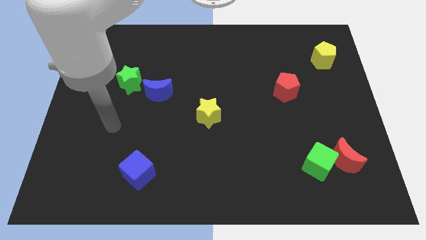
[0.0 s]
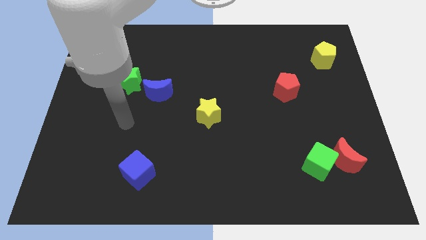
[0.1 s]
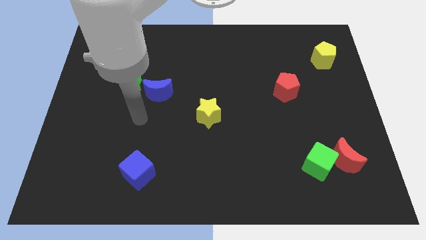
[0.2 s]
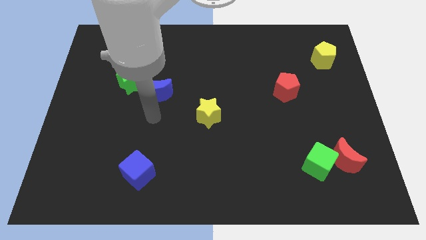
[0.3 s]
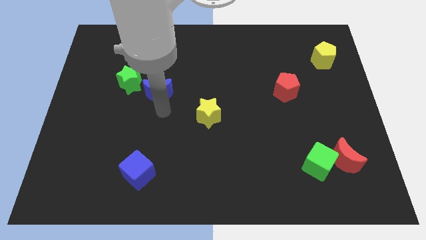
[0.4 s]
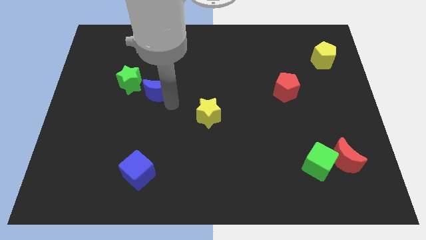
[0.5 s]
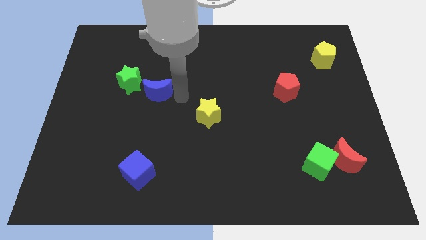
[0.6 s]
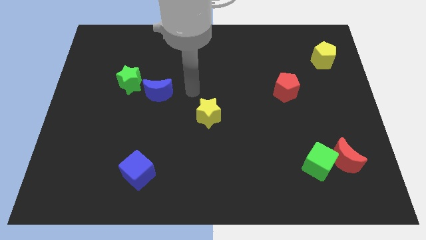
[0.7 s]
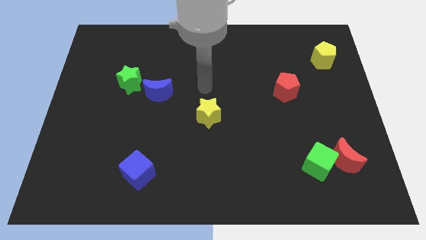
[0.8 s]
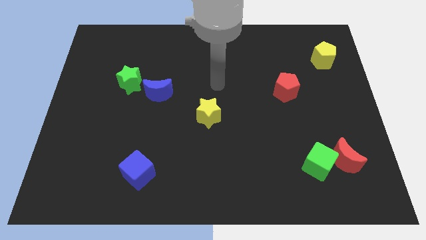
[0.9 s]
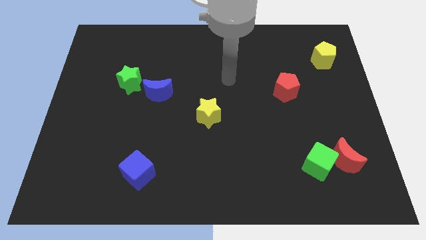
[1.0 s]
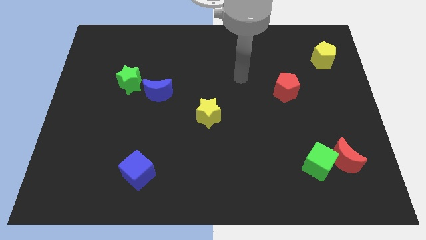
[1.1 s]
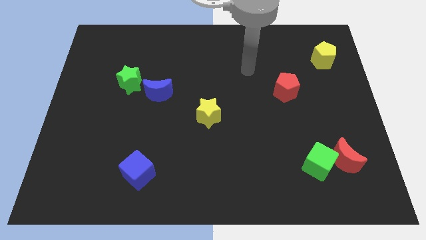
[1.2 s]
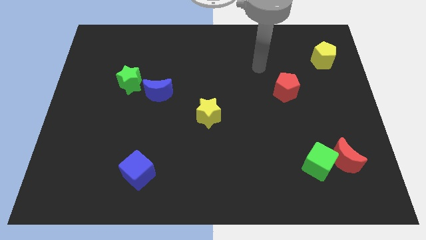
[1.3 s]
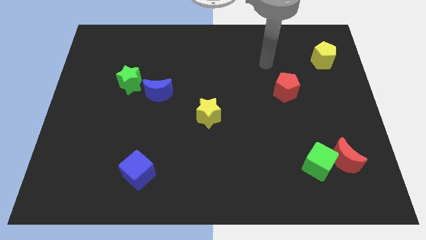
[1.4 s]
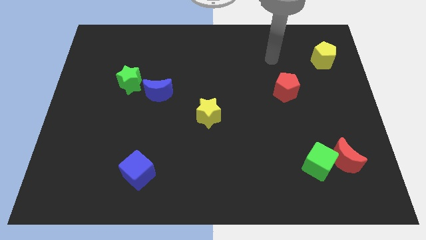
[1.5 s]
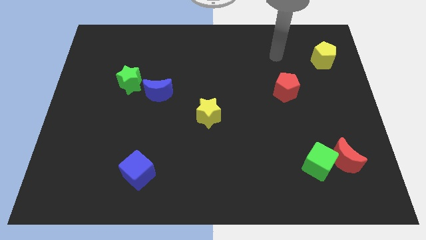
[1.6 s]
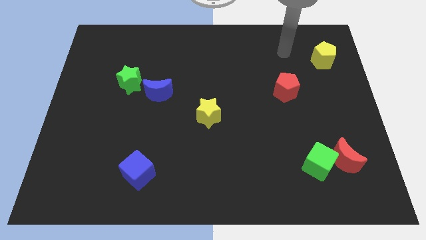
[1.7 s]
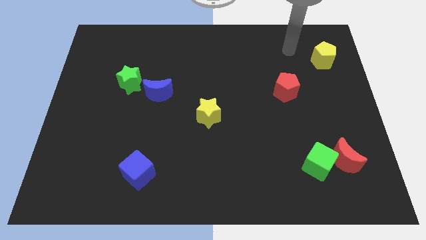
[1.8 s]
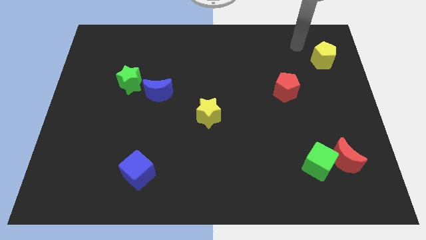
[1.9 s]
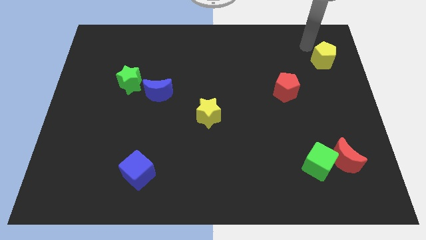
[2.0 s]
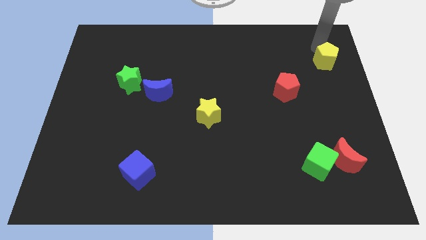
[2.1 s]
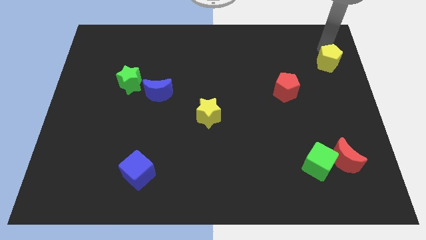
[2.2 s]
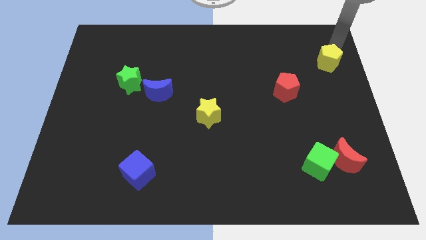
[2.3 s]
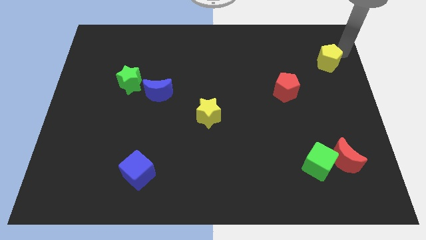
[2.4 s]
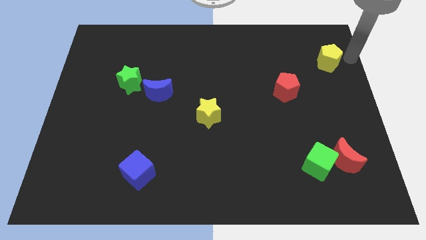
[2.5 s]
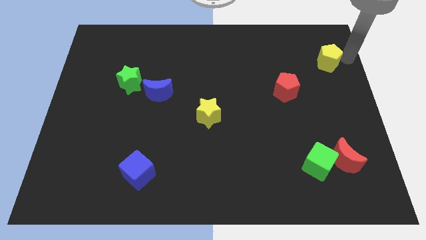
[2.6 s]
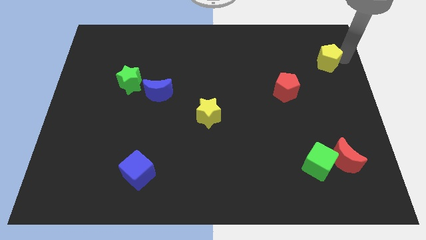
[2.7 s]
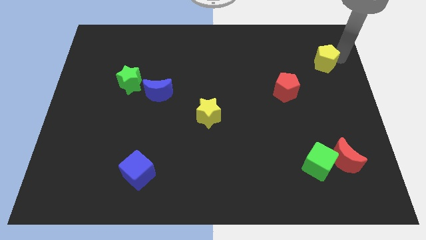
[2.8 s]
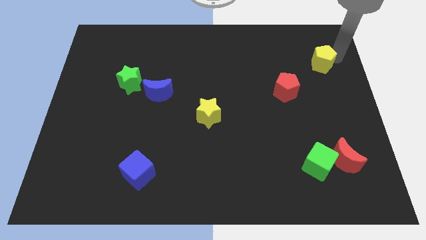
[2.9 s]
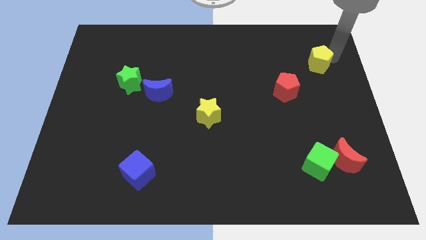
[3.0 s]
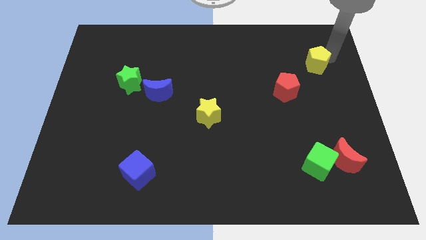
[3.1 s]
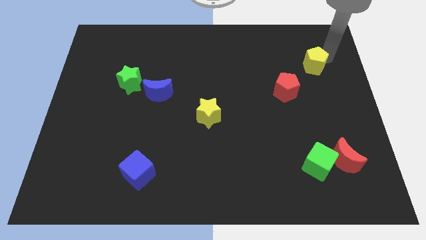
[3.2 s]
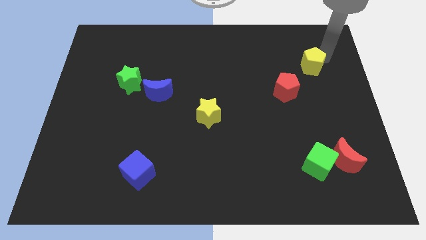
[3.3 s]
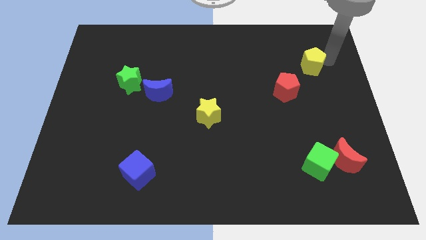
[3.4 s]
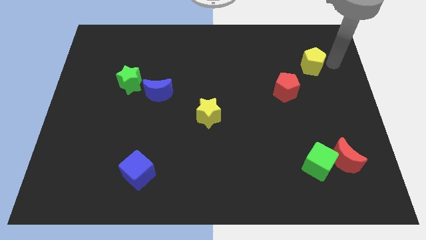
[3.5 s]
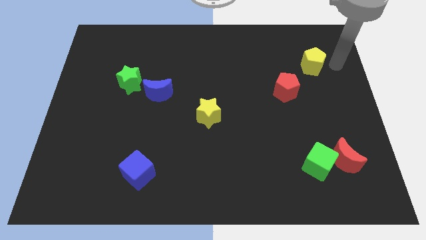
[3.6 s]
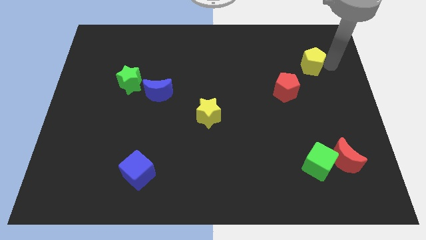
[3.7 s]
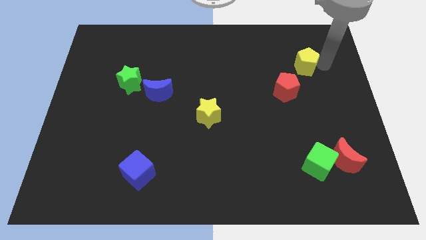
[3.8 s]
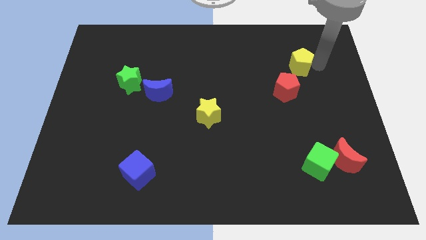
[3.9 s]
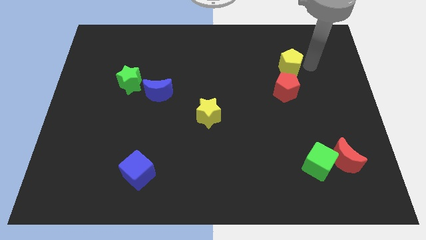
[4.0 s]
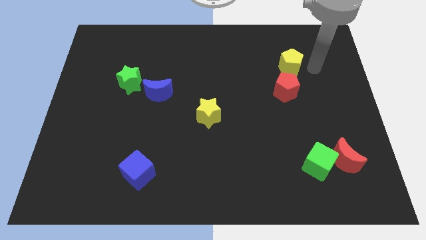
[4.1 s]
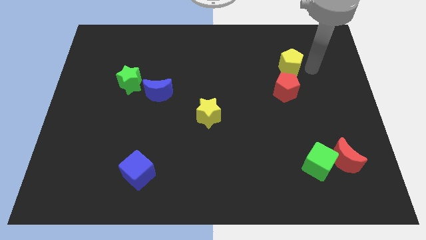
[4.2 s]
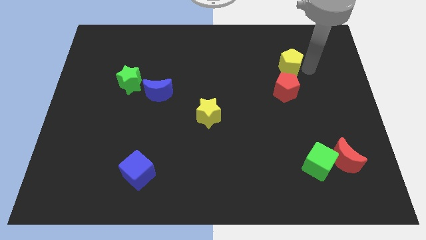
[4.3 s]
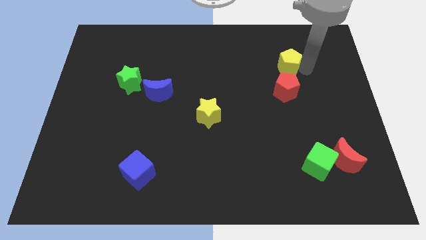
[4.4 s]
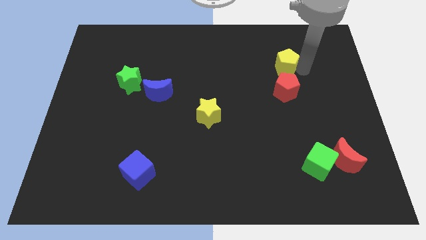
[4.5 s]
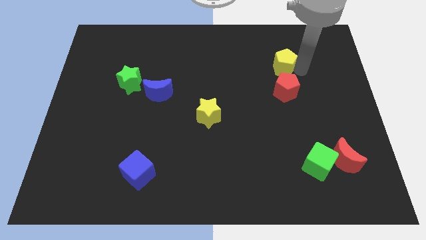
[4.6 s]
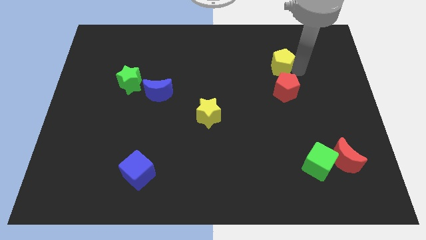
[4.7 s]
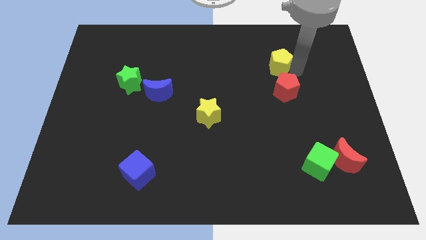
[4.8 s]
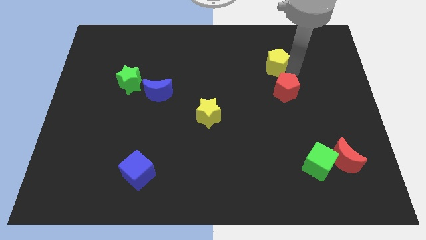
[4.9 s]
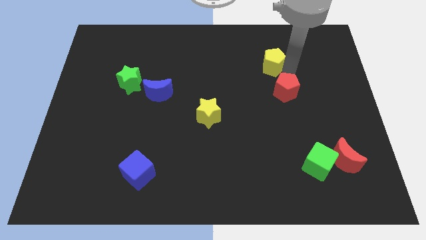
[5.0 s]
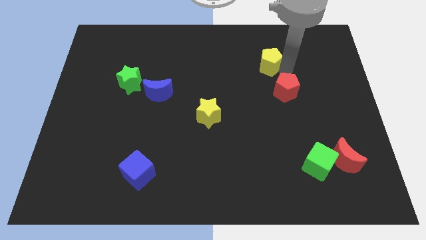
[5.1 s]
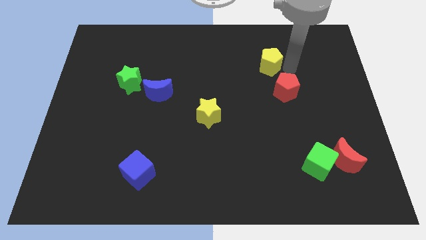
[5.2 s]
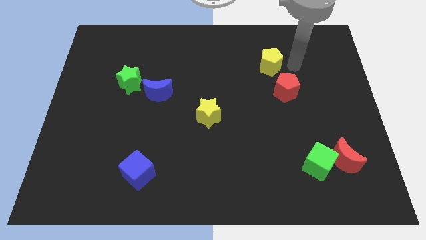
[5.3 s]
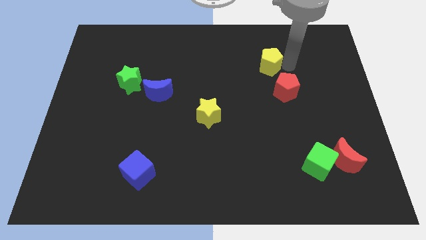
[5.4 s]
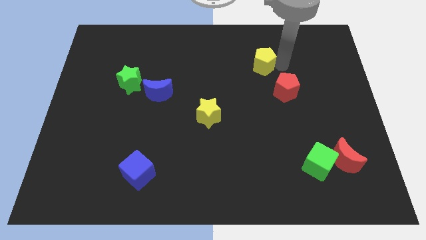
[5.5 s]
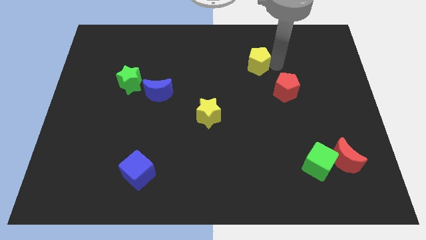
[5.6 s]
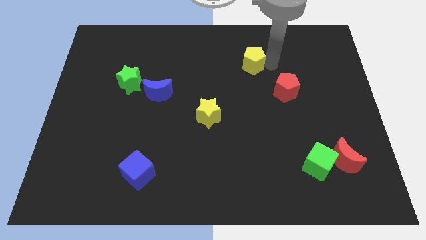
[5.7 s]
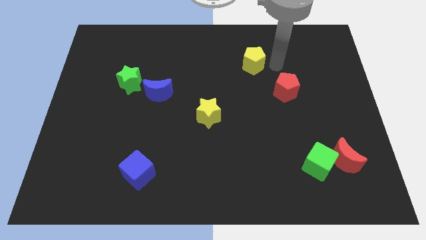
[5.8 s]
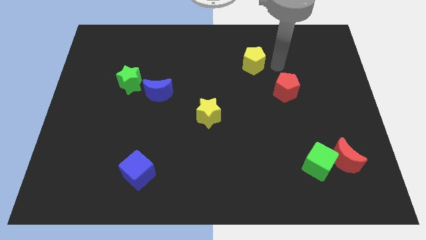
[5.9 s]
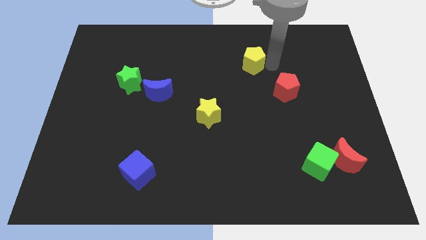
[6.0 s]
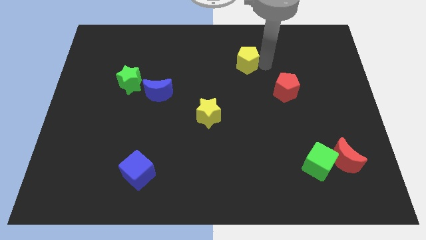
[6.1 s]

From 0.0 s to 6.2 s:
move the yellow pentagon left

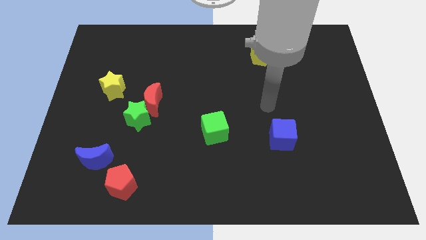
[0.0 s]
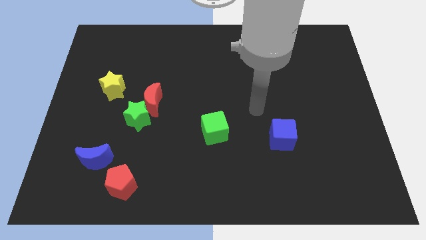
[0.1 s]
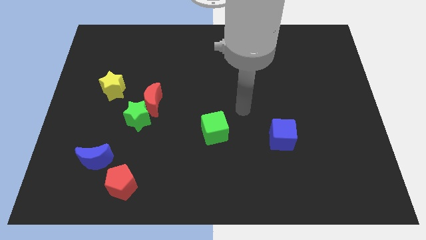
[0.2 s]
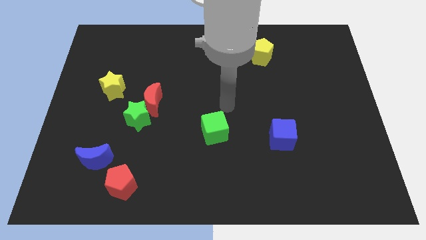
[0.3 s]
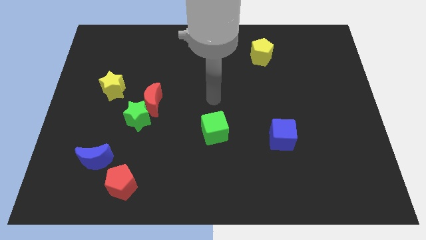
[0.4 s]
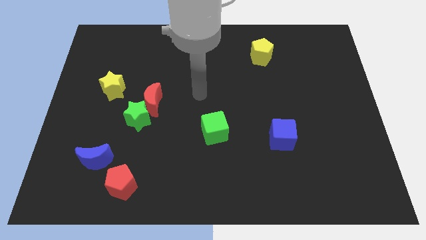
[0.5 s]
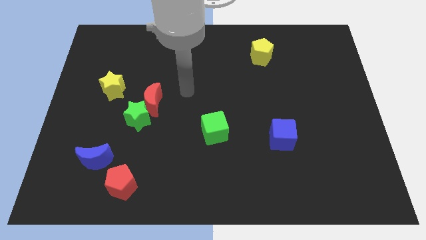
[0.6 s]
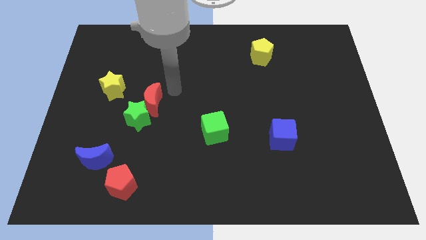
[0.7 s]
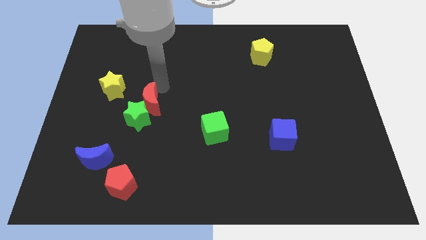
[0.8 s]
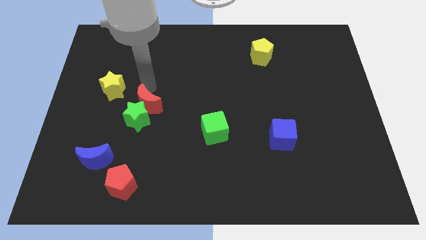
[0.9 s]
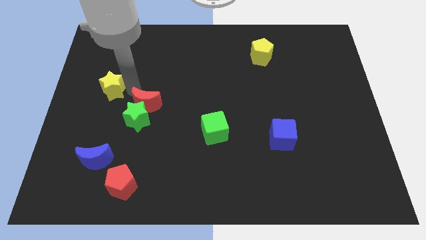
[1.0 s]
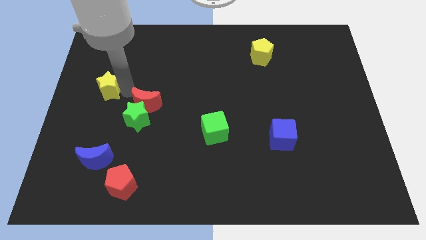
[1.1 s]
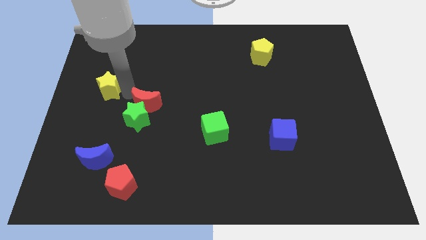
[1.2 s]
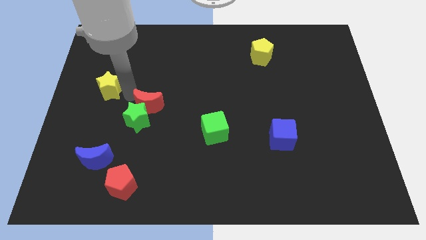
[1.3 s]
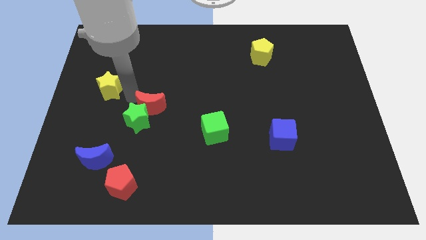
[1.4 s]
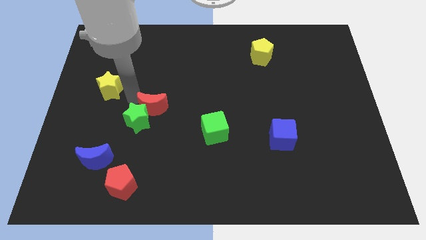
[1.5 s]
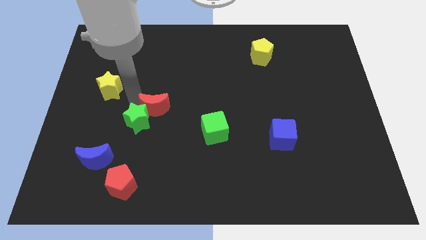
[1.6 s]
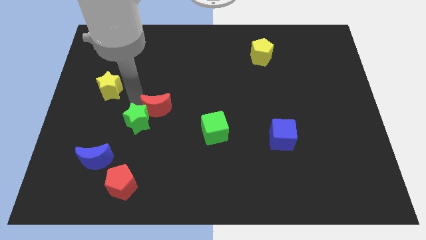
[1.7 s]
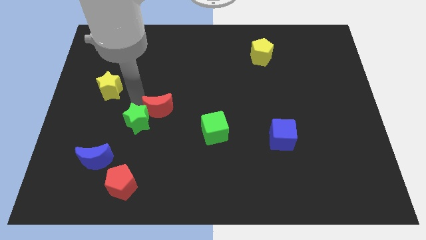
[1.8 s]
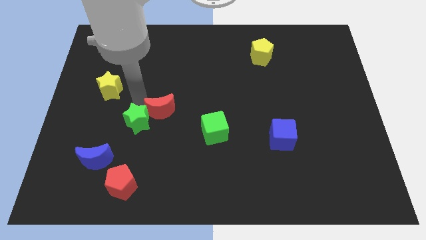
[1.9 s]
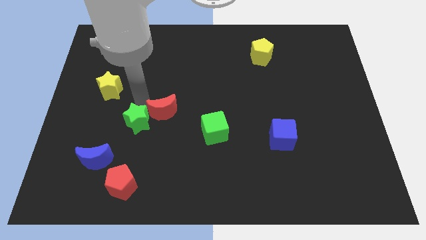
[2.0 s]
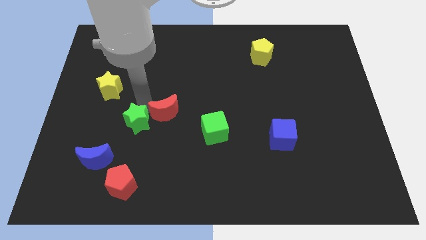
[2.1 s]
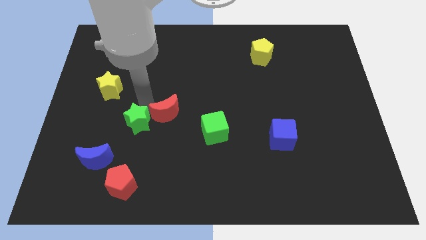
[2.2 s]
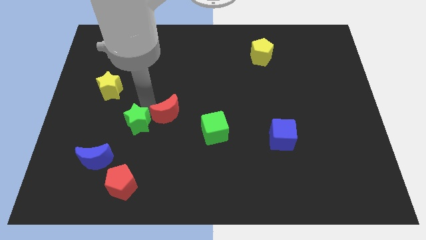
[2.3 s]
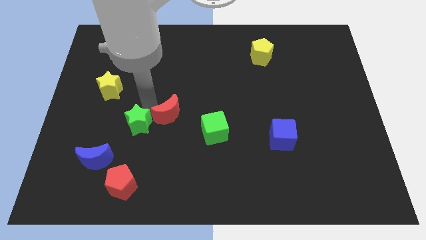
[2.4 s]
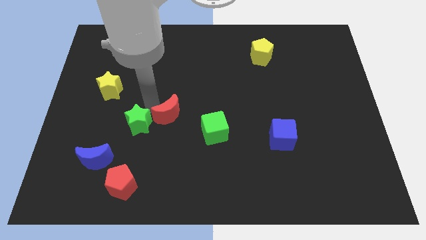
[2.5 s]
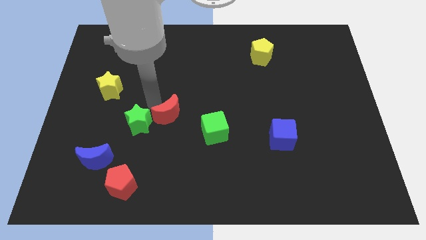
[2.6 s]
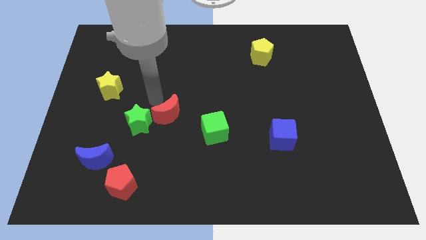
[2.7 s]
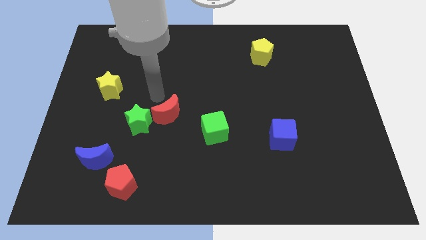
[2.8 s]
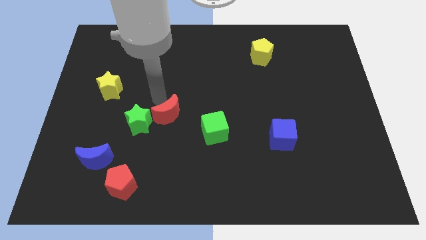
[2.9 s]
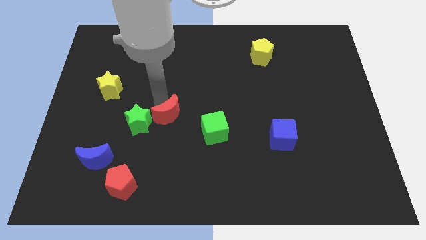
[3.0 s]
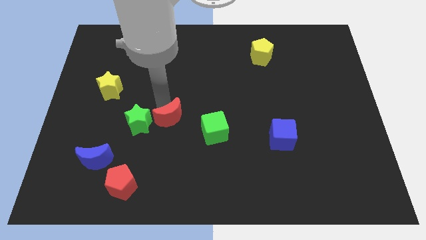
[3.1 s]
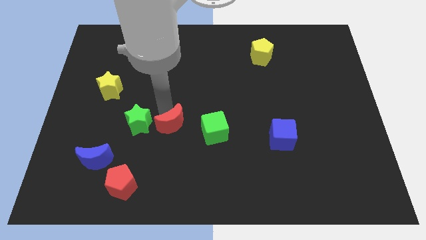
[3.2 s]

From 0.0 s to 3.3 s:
slightly move the red moon downwards and then right
